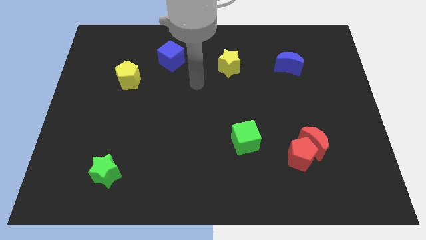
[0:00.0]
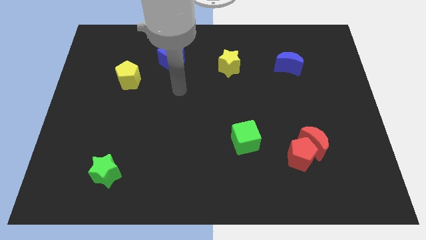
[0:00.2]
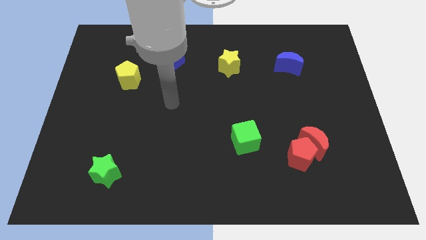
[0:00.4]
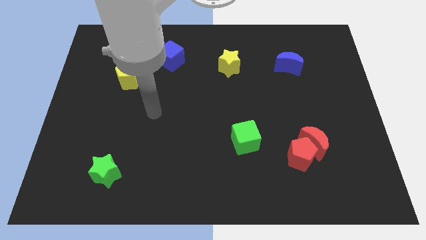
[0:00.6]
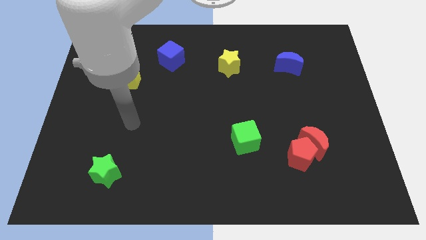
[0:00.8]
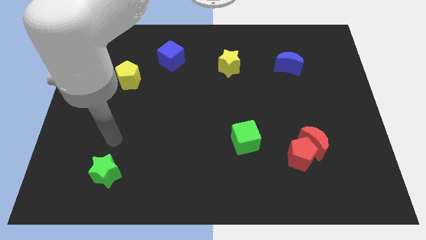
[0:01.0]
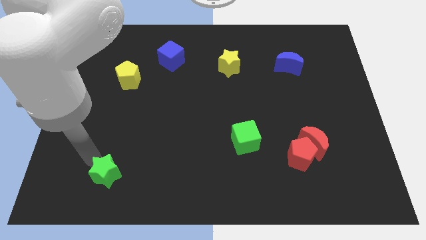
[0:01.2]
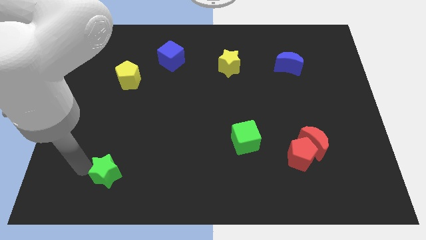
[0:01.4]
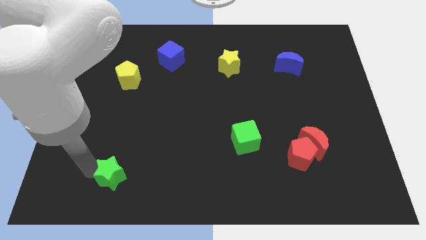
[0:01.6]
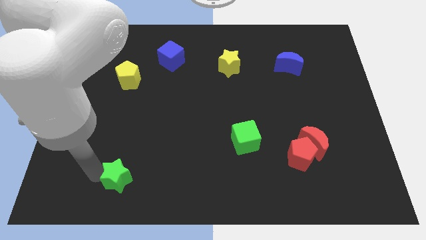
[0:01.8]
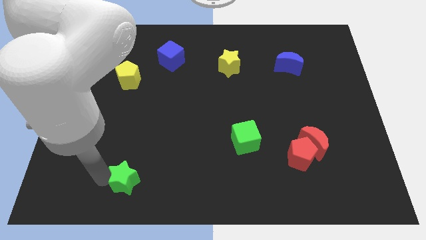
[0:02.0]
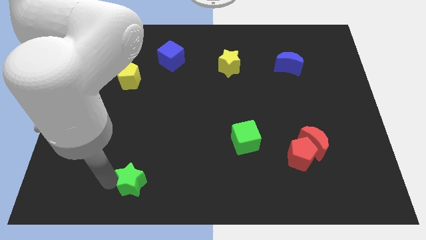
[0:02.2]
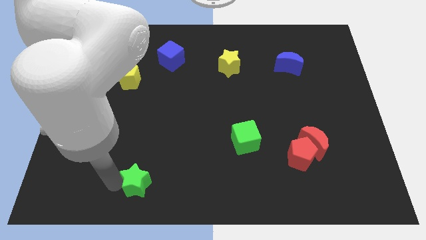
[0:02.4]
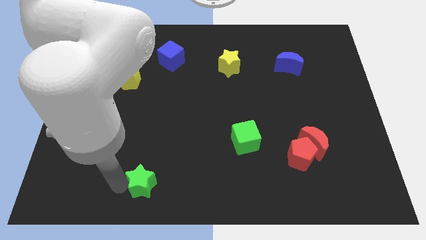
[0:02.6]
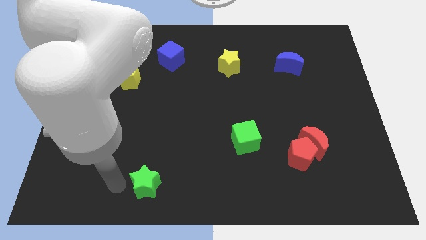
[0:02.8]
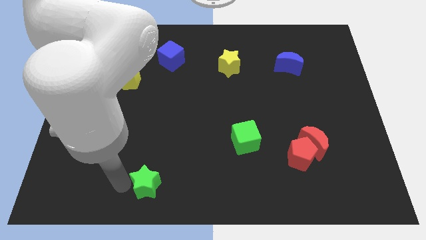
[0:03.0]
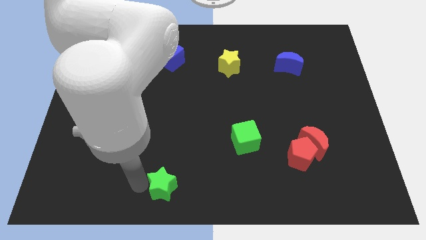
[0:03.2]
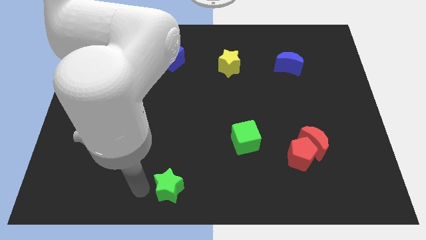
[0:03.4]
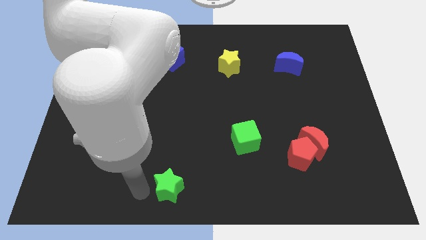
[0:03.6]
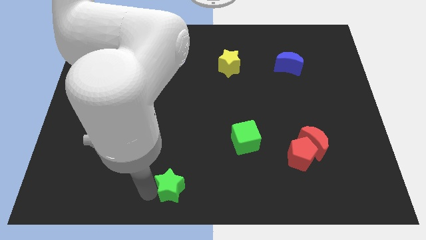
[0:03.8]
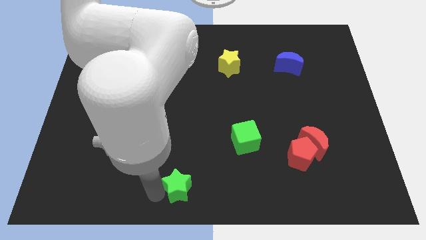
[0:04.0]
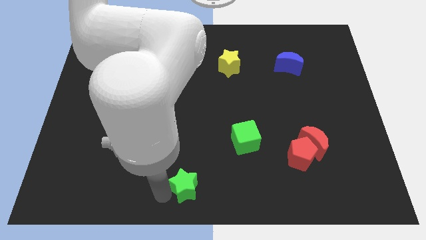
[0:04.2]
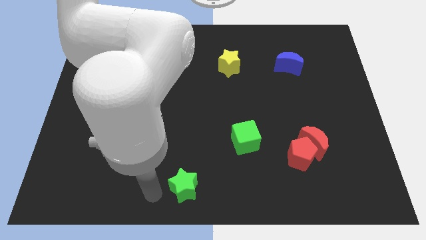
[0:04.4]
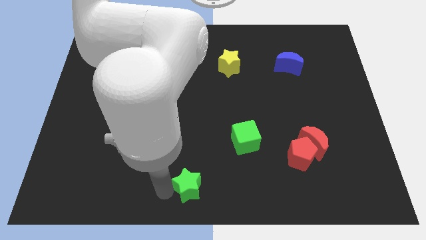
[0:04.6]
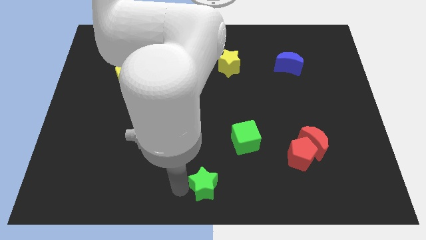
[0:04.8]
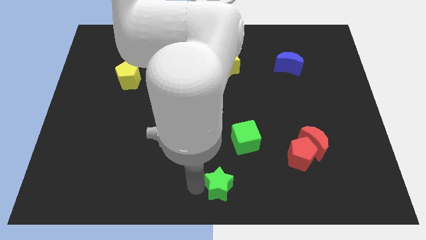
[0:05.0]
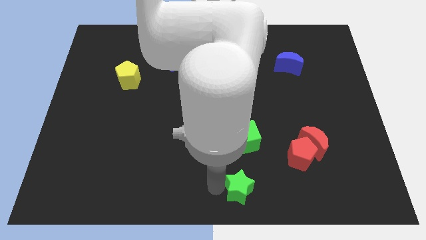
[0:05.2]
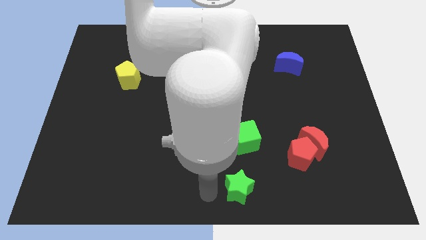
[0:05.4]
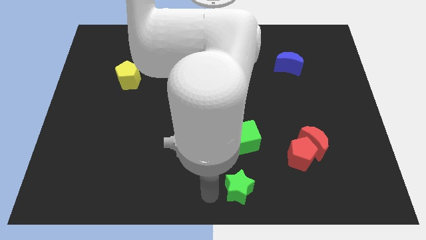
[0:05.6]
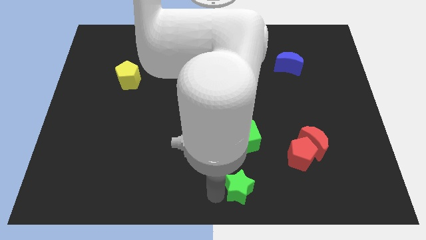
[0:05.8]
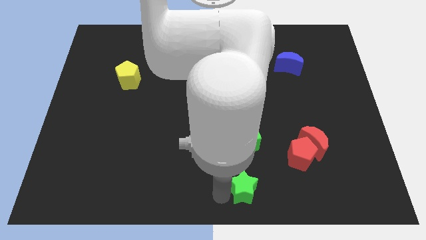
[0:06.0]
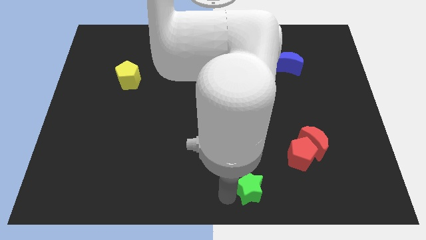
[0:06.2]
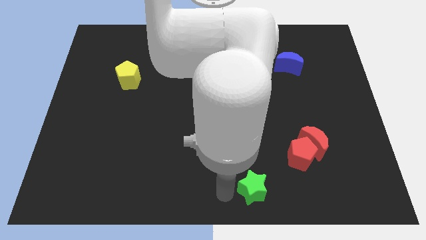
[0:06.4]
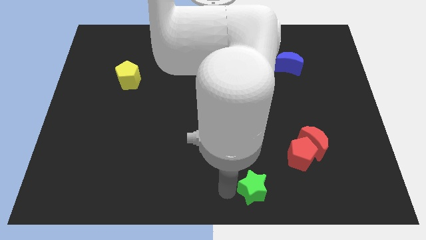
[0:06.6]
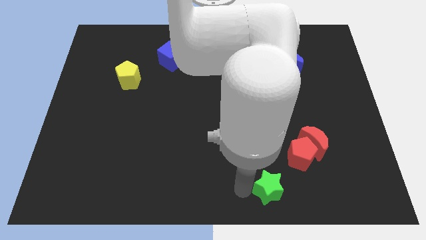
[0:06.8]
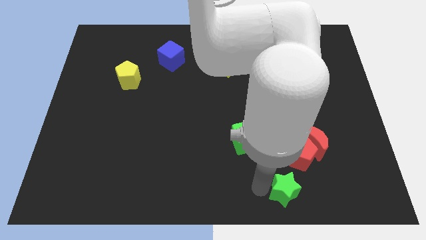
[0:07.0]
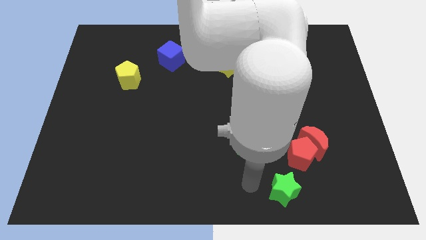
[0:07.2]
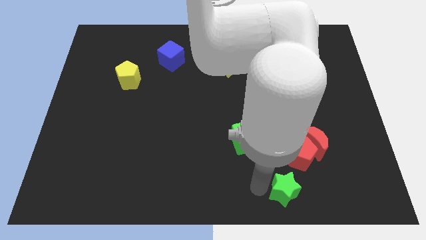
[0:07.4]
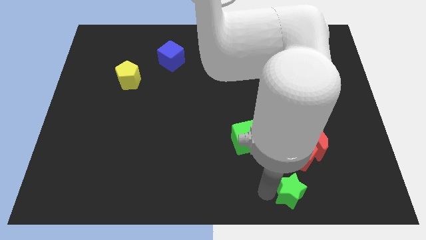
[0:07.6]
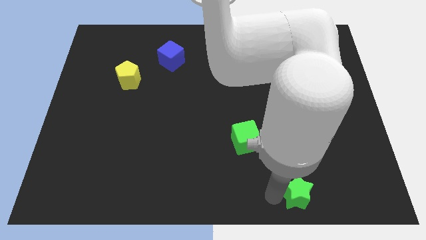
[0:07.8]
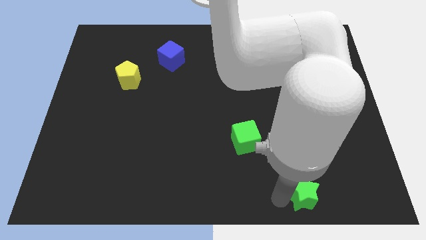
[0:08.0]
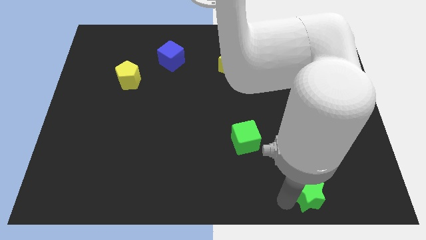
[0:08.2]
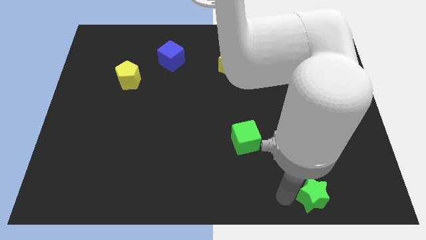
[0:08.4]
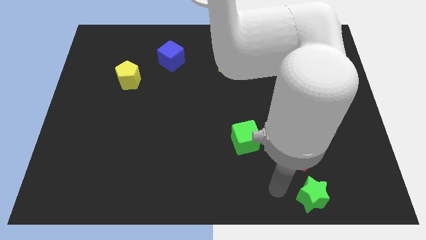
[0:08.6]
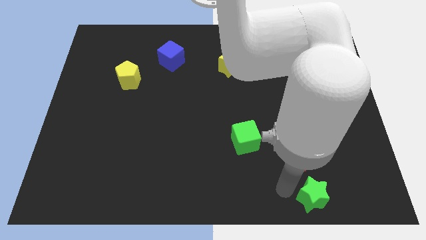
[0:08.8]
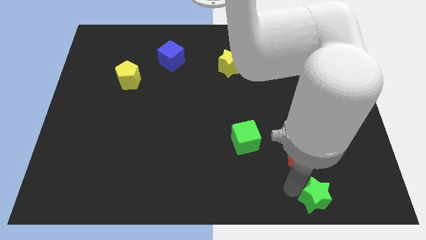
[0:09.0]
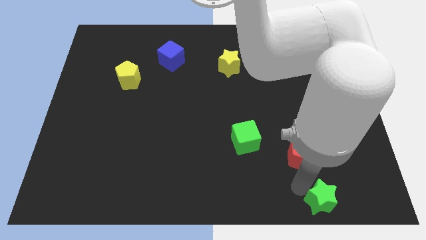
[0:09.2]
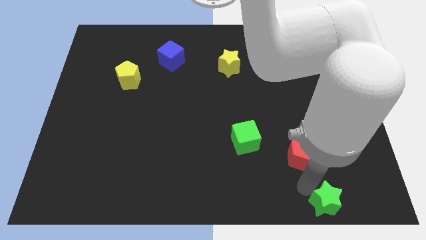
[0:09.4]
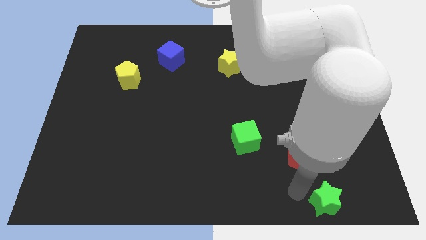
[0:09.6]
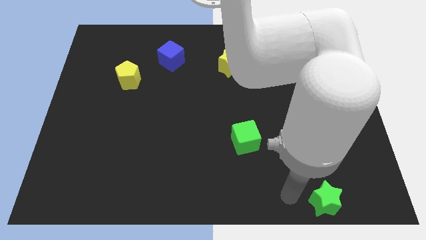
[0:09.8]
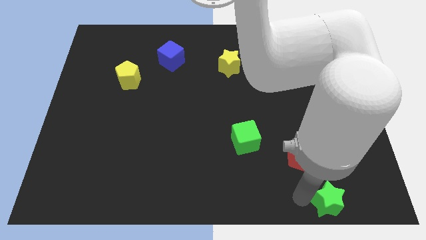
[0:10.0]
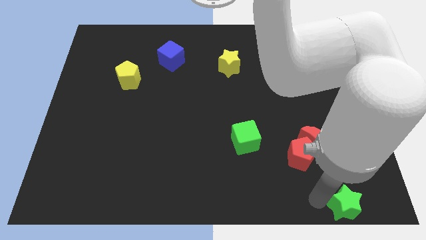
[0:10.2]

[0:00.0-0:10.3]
slide the green star to the bottom right

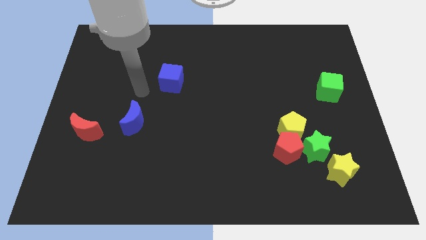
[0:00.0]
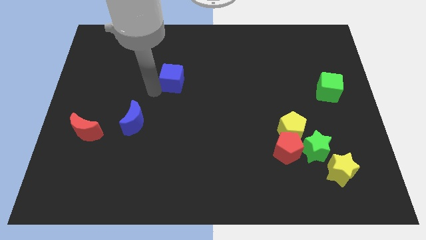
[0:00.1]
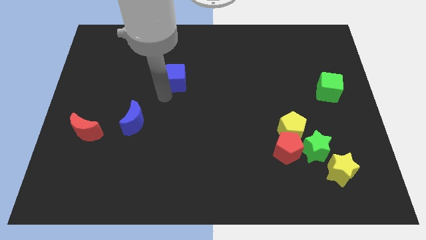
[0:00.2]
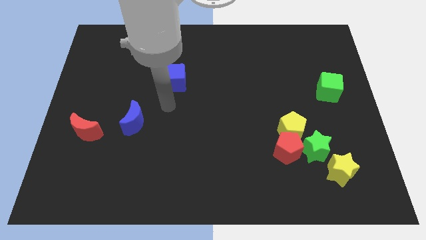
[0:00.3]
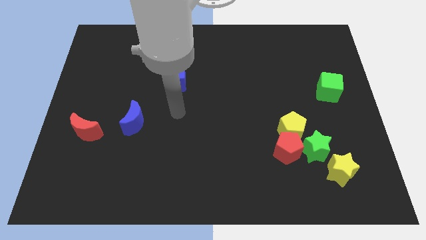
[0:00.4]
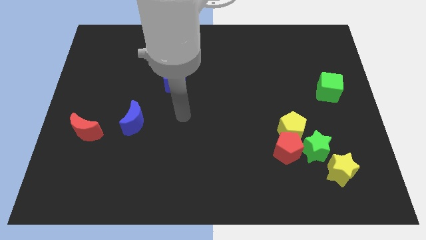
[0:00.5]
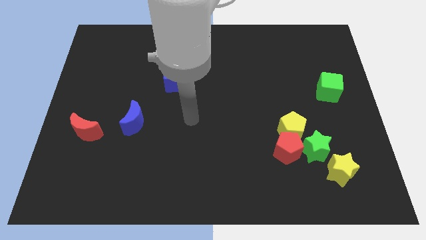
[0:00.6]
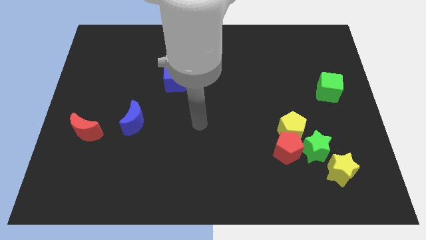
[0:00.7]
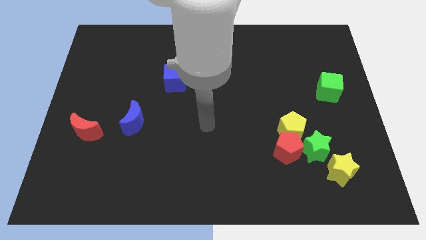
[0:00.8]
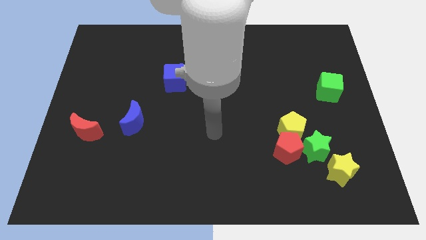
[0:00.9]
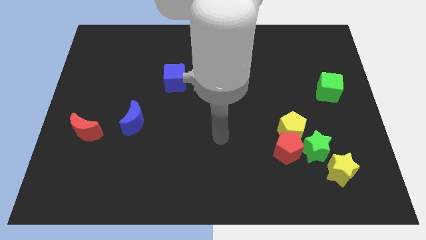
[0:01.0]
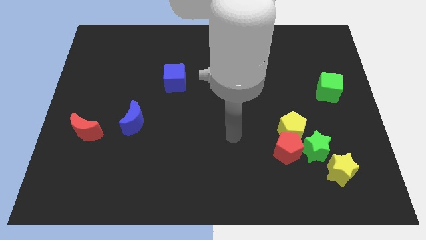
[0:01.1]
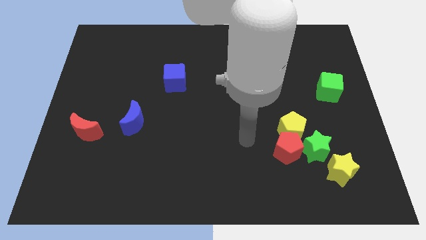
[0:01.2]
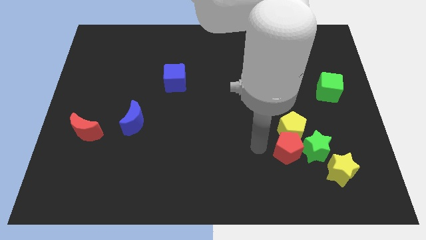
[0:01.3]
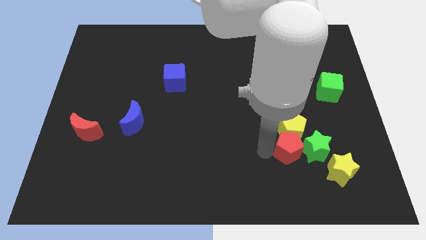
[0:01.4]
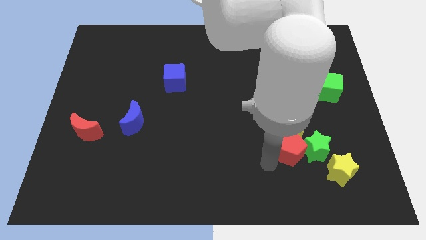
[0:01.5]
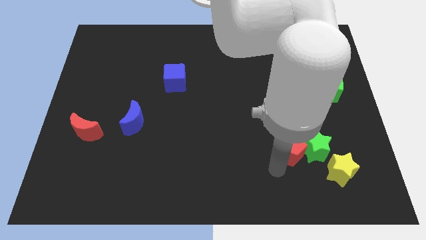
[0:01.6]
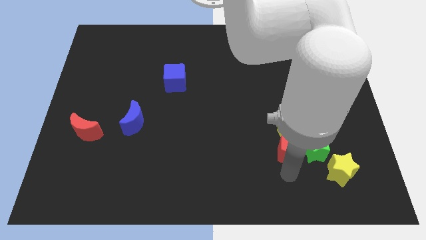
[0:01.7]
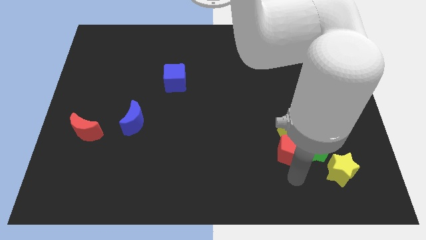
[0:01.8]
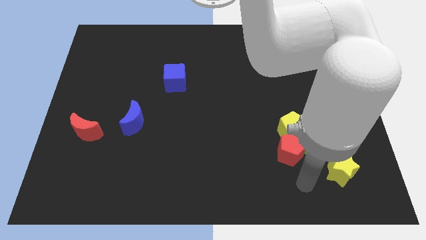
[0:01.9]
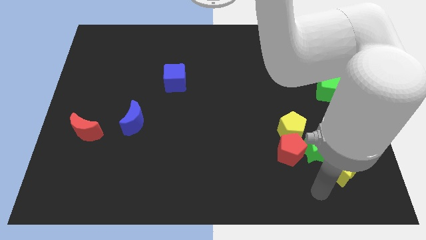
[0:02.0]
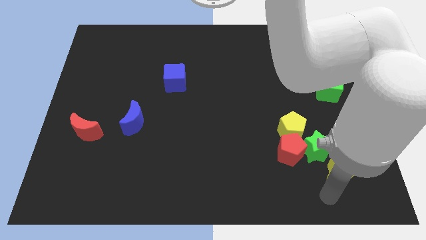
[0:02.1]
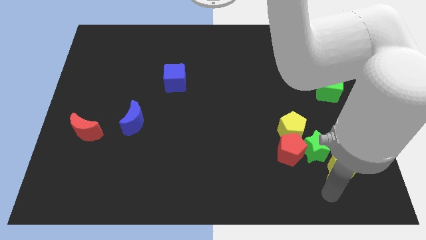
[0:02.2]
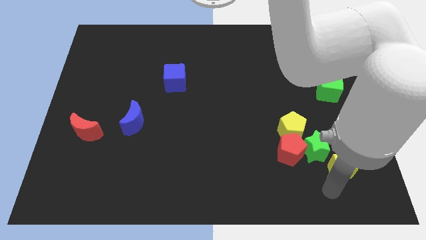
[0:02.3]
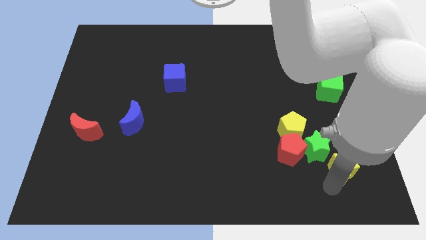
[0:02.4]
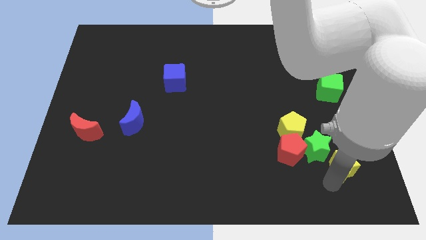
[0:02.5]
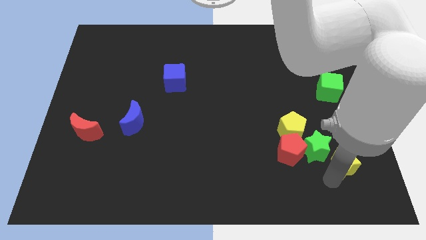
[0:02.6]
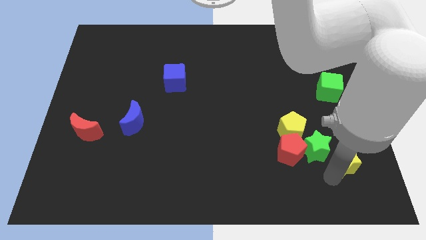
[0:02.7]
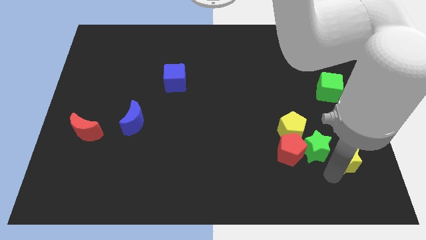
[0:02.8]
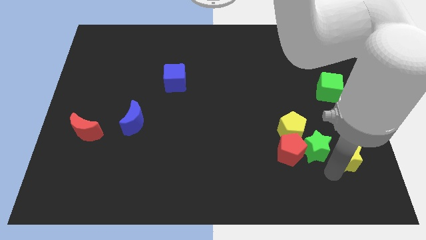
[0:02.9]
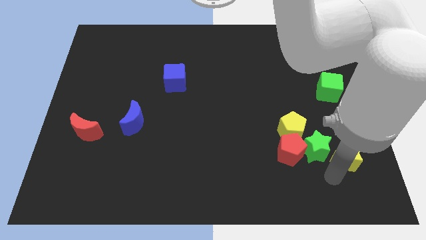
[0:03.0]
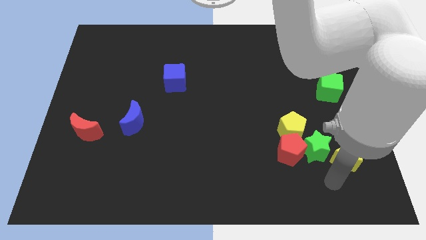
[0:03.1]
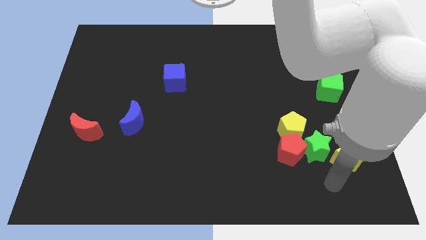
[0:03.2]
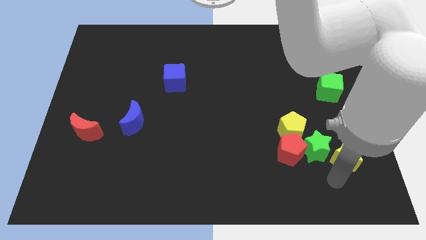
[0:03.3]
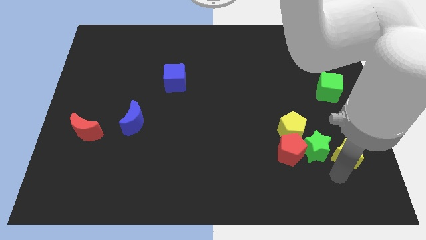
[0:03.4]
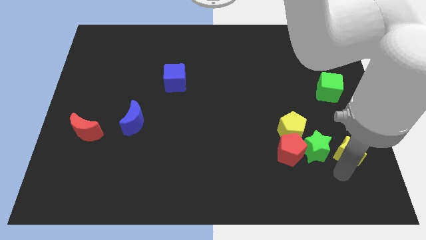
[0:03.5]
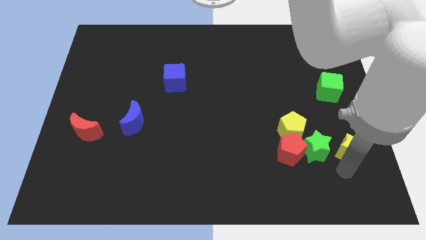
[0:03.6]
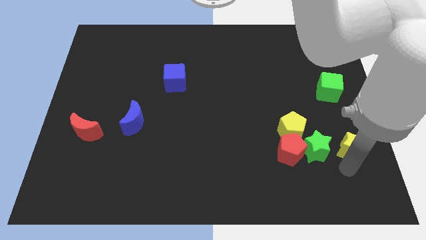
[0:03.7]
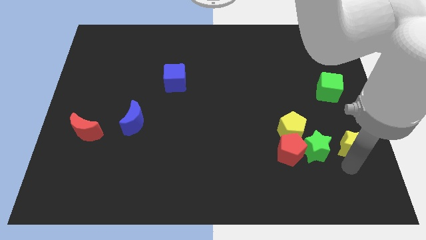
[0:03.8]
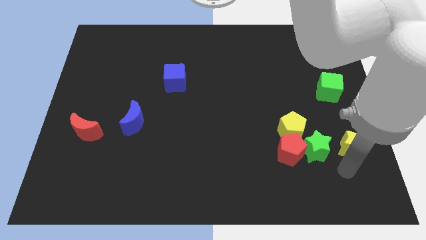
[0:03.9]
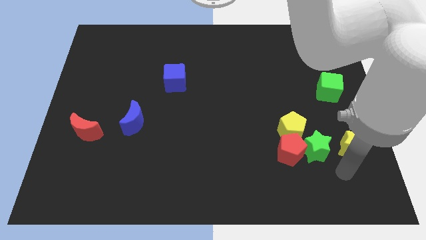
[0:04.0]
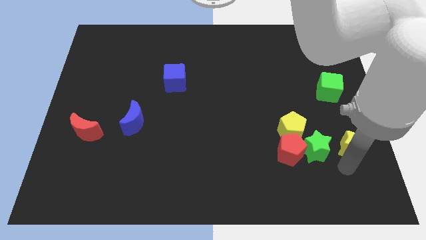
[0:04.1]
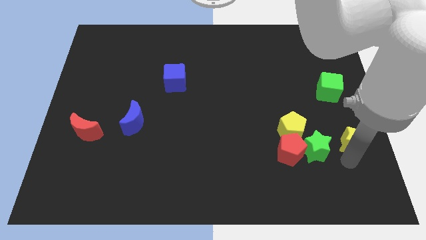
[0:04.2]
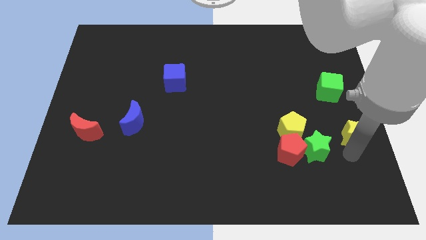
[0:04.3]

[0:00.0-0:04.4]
move the yellow star to the center right
